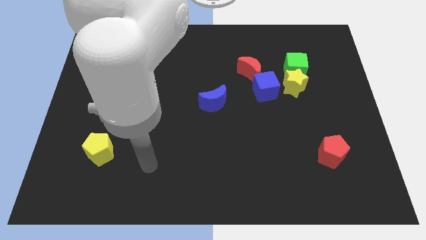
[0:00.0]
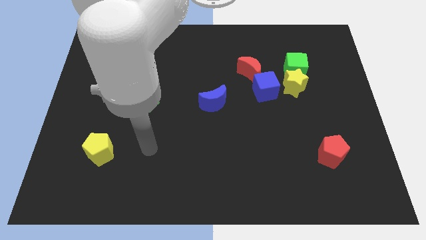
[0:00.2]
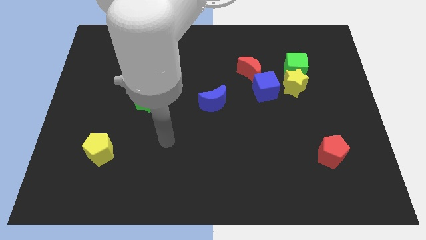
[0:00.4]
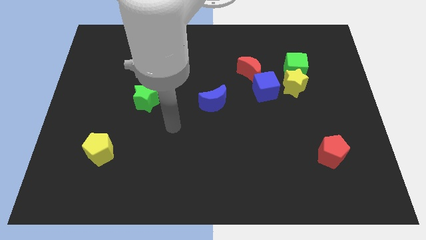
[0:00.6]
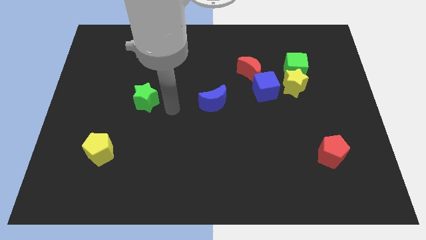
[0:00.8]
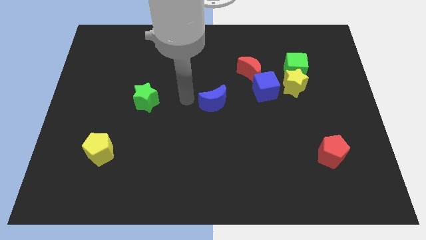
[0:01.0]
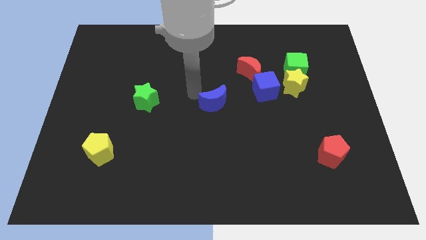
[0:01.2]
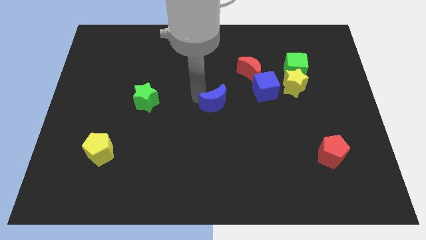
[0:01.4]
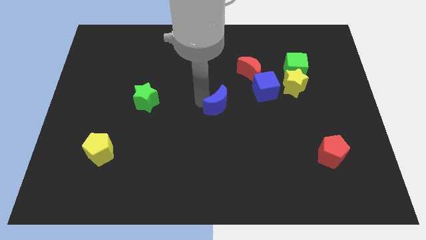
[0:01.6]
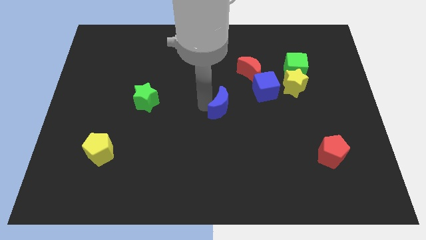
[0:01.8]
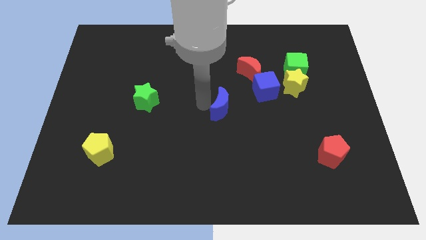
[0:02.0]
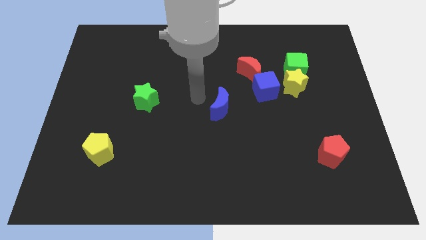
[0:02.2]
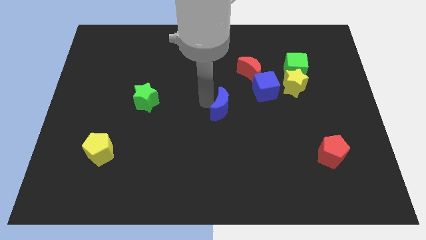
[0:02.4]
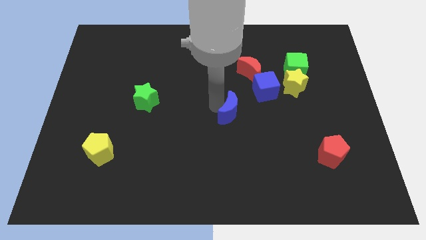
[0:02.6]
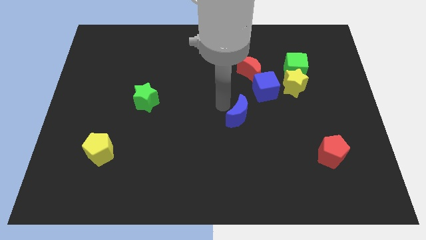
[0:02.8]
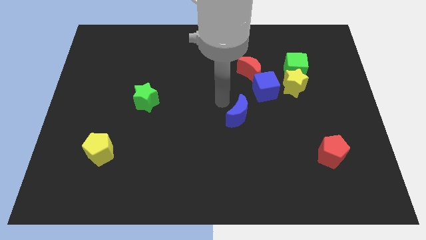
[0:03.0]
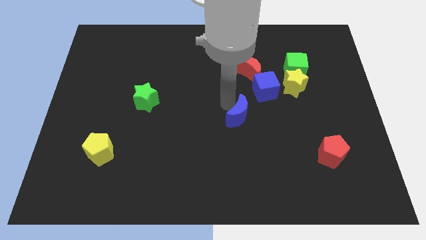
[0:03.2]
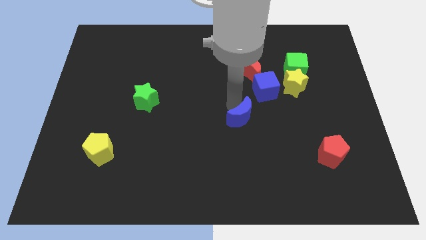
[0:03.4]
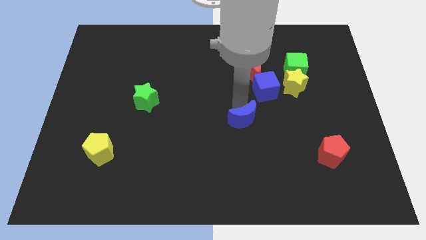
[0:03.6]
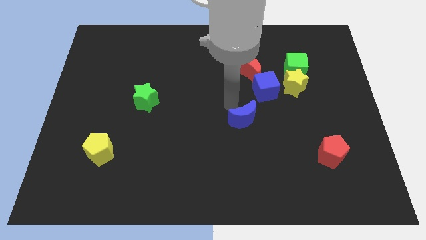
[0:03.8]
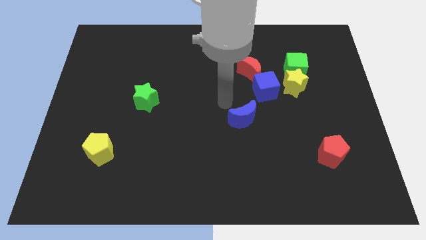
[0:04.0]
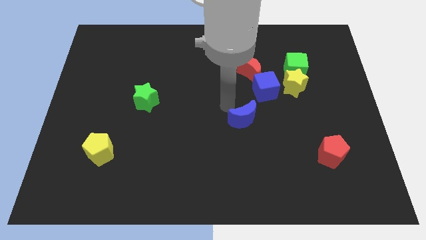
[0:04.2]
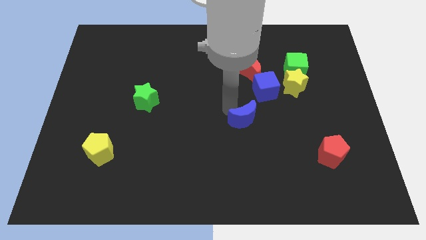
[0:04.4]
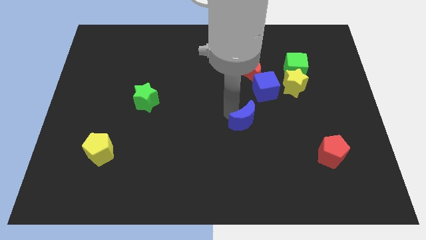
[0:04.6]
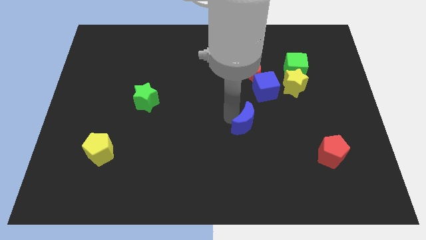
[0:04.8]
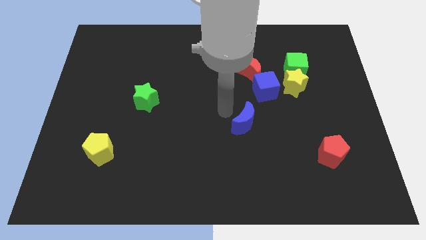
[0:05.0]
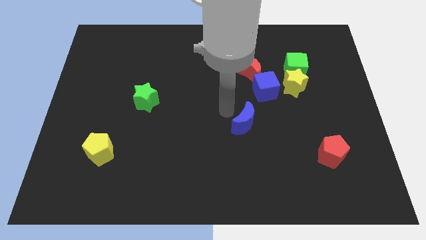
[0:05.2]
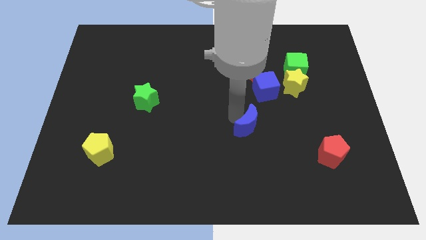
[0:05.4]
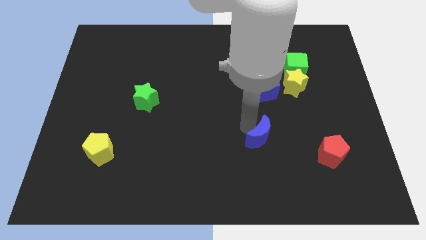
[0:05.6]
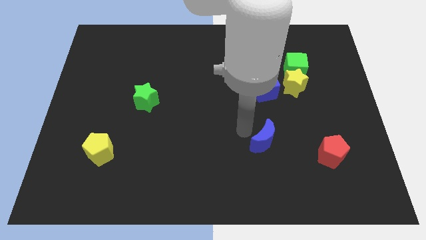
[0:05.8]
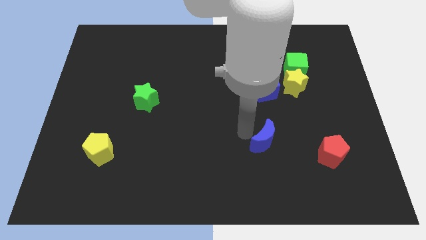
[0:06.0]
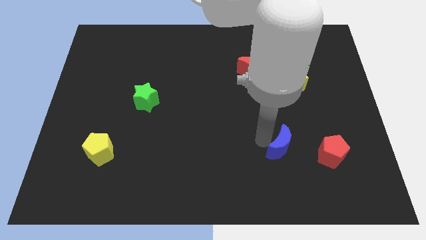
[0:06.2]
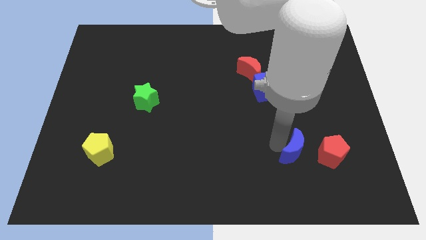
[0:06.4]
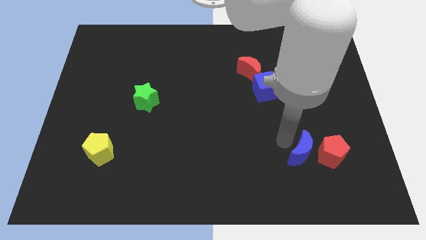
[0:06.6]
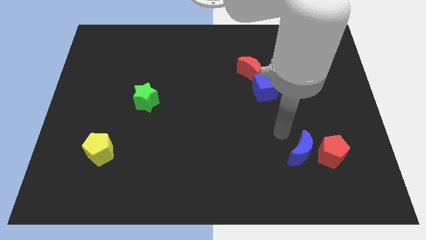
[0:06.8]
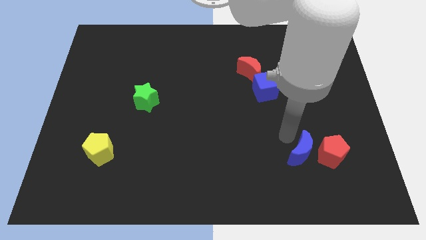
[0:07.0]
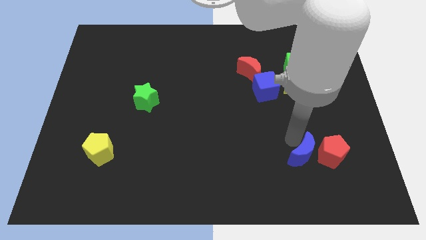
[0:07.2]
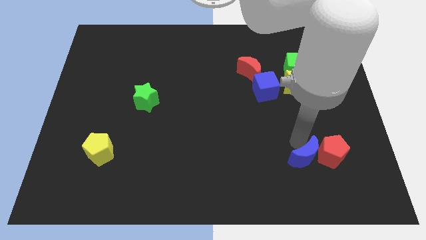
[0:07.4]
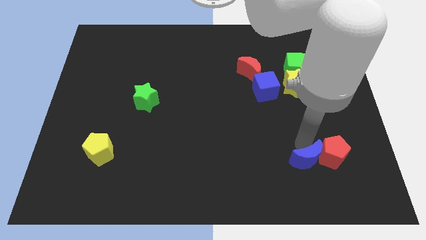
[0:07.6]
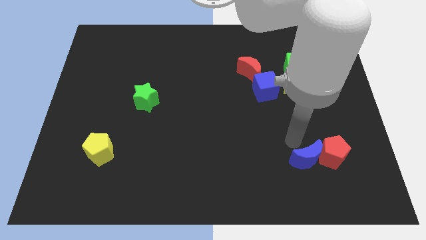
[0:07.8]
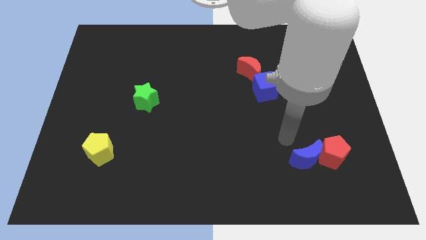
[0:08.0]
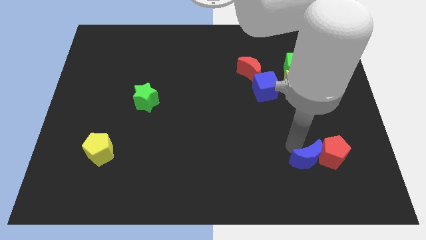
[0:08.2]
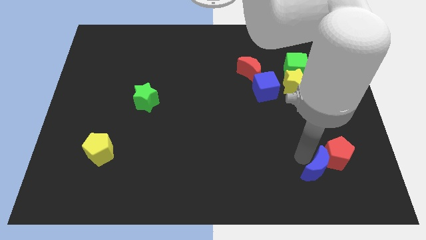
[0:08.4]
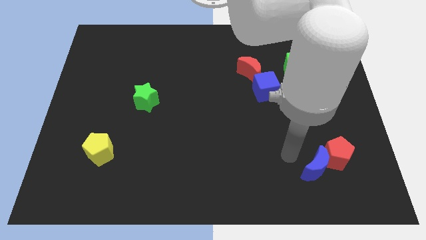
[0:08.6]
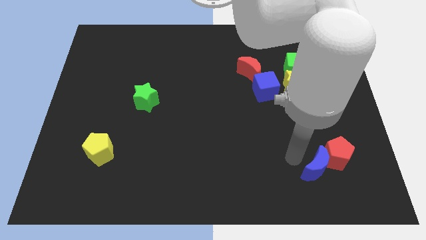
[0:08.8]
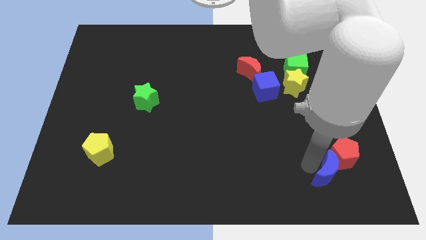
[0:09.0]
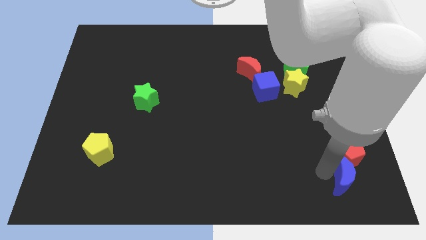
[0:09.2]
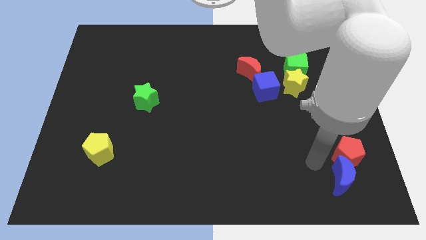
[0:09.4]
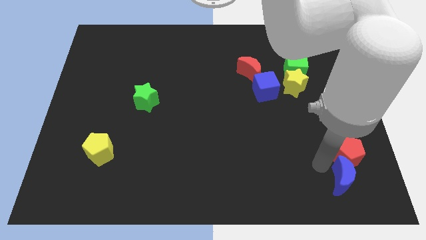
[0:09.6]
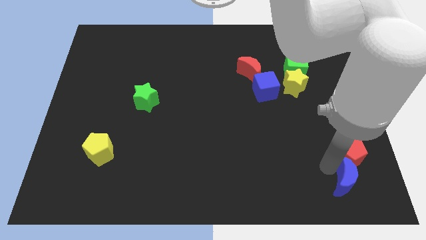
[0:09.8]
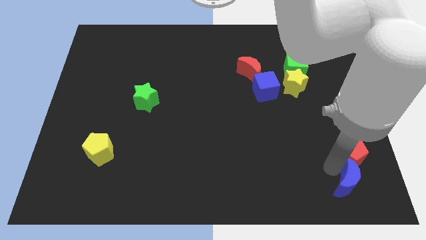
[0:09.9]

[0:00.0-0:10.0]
slide the blue moon to the bottom right

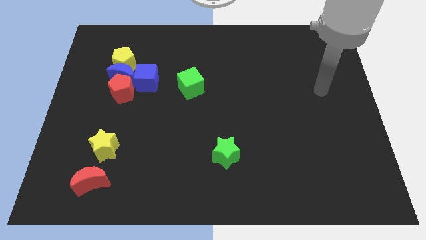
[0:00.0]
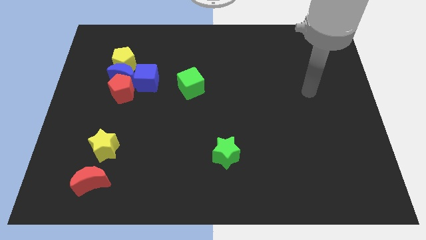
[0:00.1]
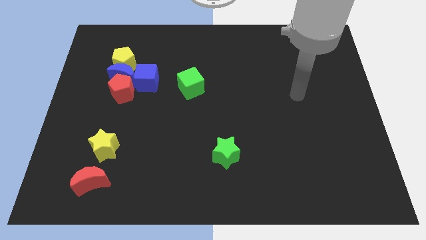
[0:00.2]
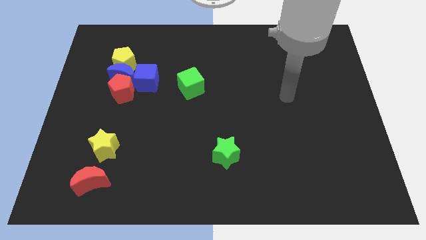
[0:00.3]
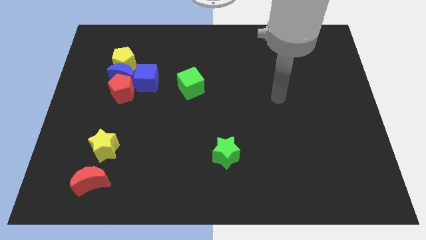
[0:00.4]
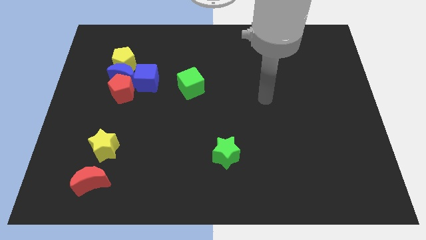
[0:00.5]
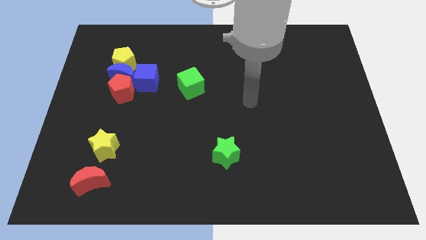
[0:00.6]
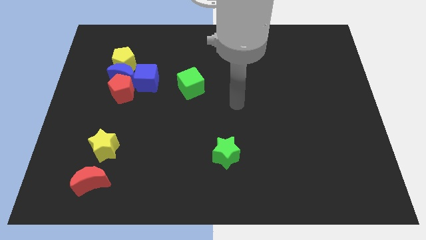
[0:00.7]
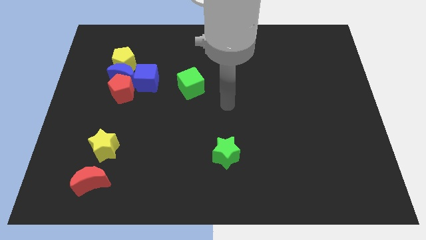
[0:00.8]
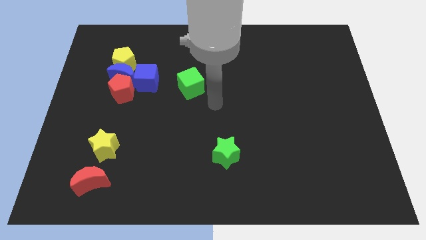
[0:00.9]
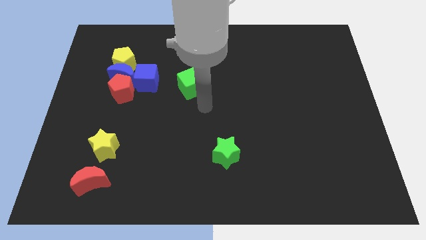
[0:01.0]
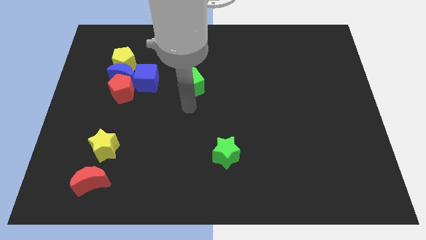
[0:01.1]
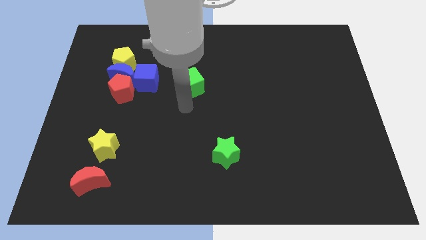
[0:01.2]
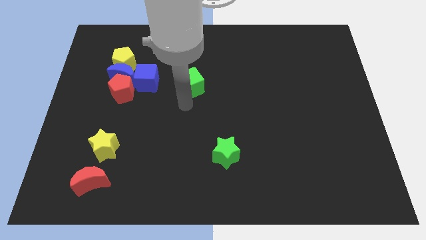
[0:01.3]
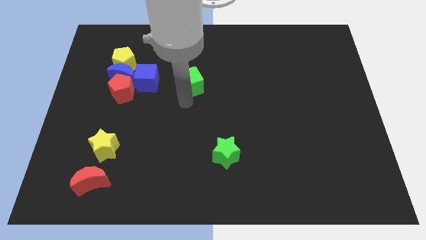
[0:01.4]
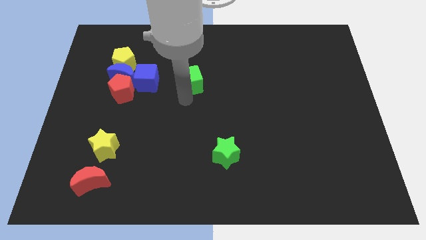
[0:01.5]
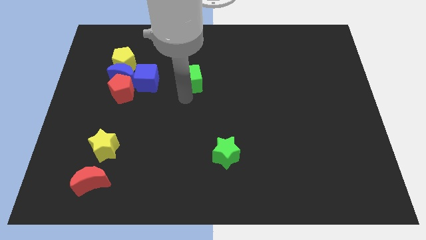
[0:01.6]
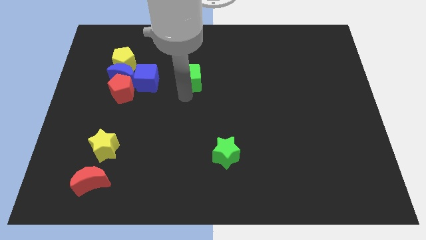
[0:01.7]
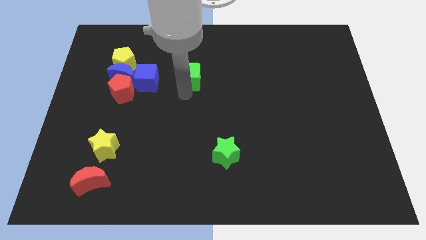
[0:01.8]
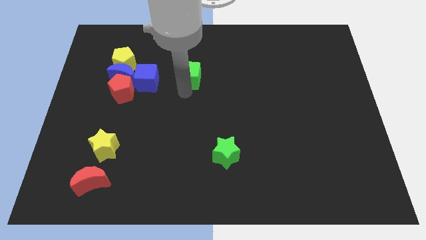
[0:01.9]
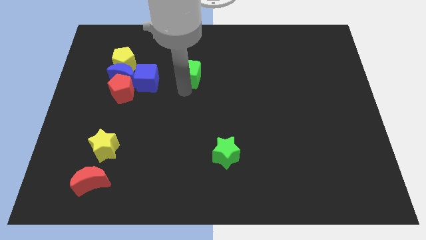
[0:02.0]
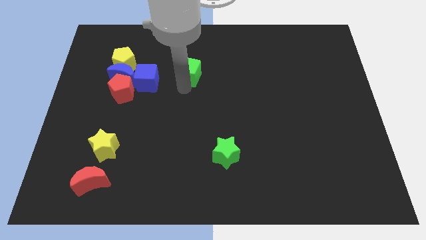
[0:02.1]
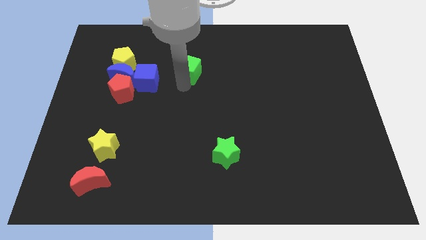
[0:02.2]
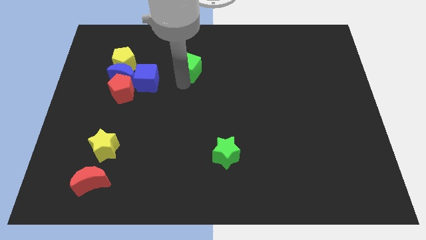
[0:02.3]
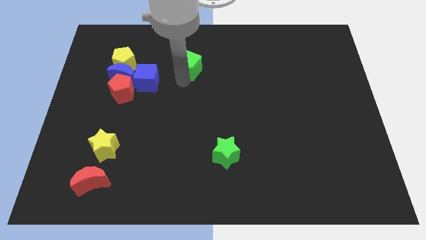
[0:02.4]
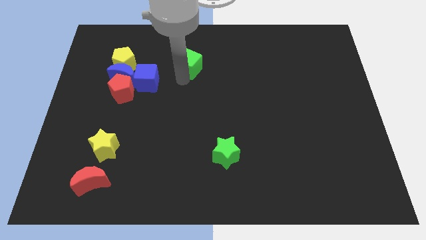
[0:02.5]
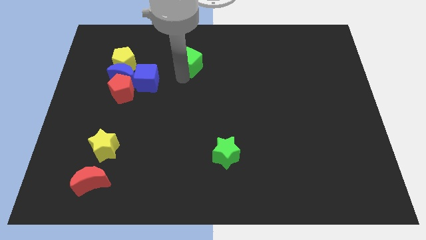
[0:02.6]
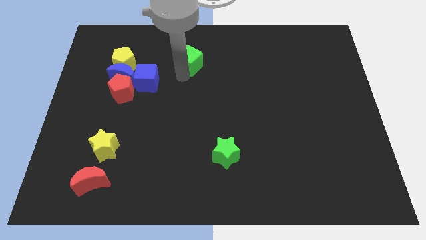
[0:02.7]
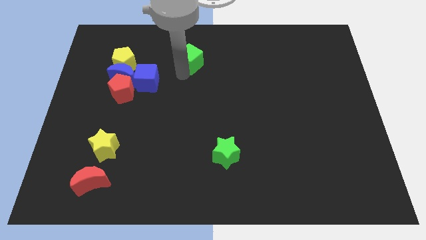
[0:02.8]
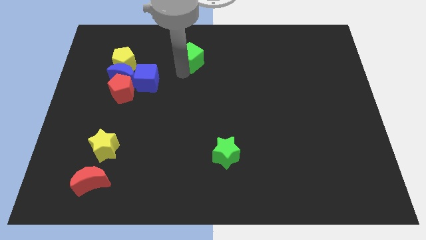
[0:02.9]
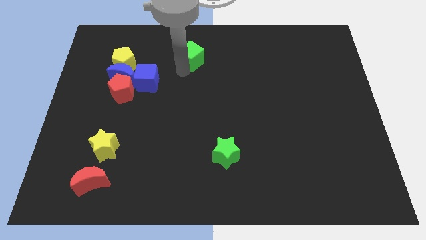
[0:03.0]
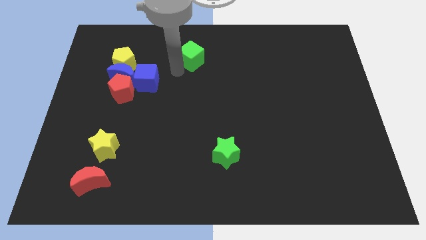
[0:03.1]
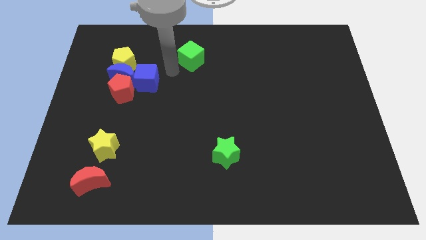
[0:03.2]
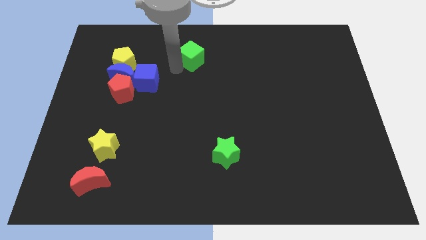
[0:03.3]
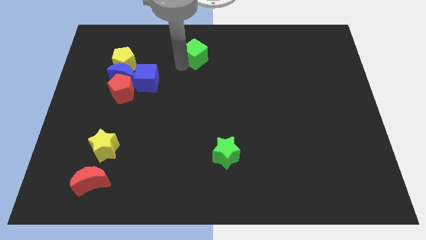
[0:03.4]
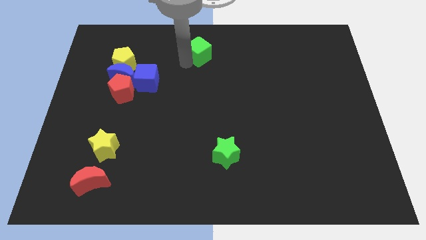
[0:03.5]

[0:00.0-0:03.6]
move the green cube to the top
